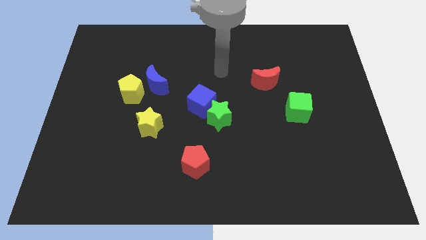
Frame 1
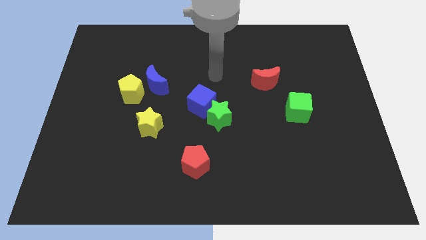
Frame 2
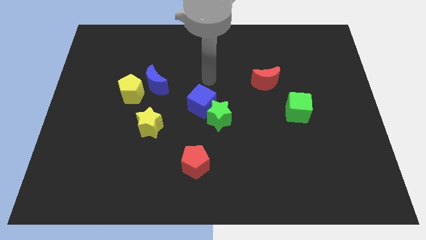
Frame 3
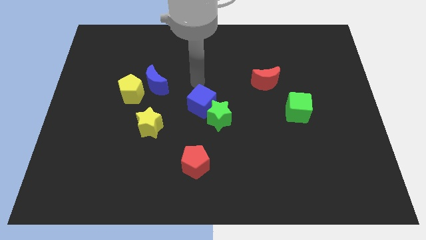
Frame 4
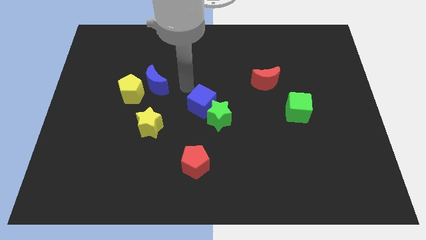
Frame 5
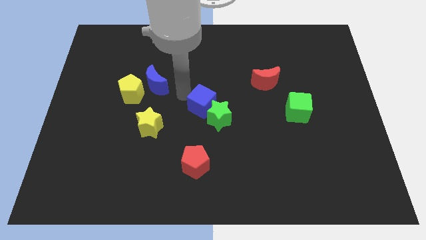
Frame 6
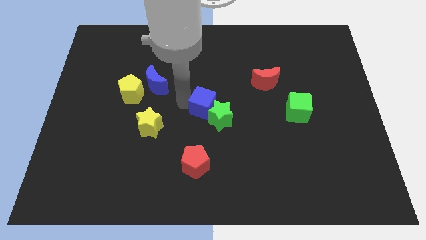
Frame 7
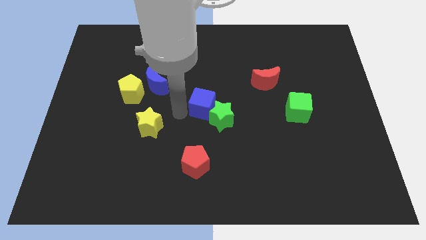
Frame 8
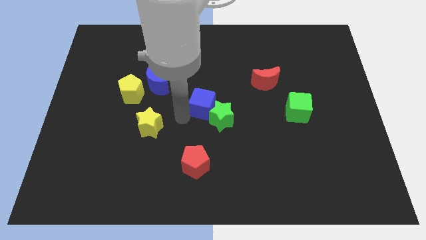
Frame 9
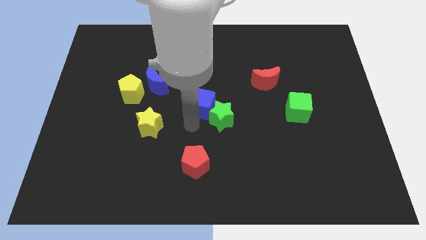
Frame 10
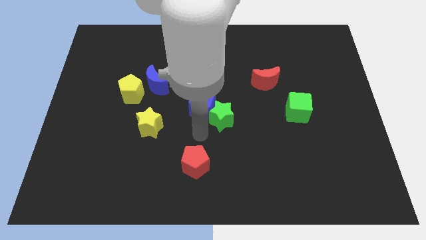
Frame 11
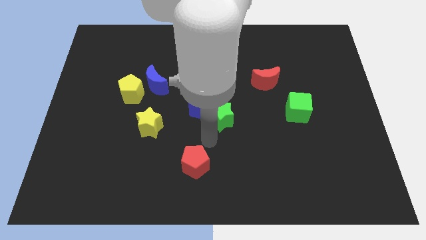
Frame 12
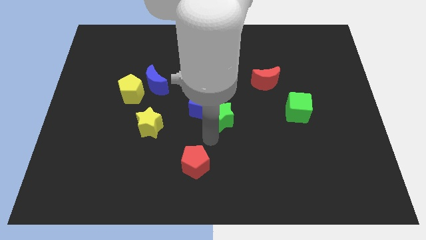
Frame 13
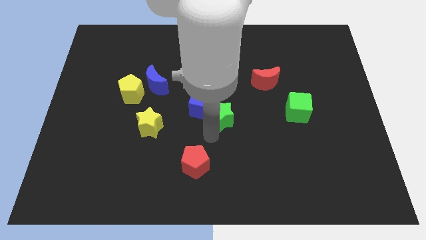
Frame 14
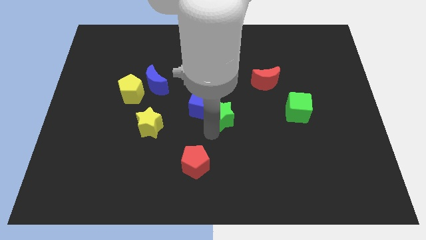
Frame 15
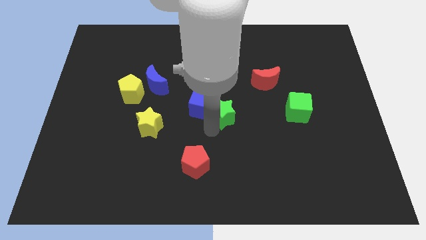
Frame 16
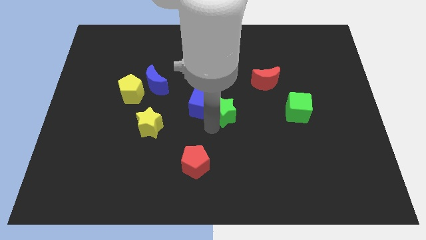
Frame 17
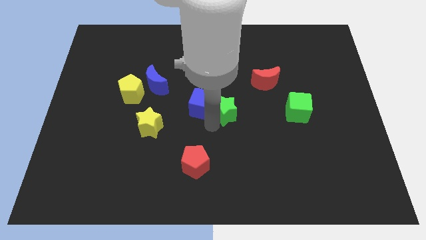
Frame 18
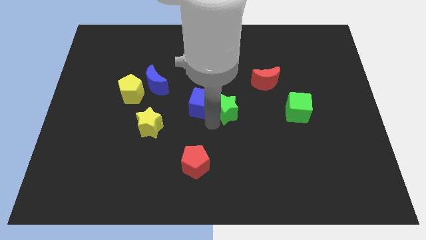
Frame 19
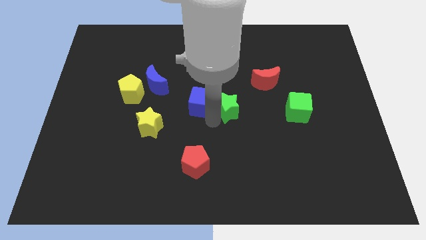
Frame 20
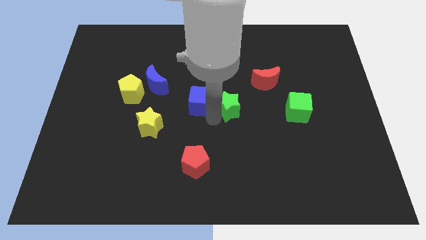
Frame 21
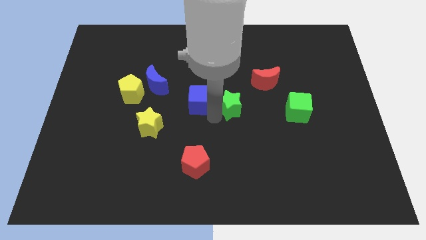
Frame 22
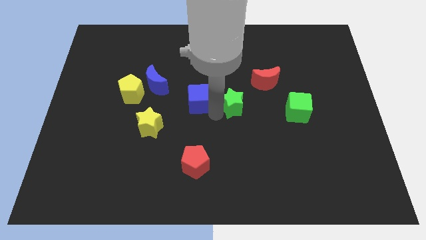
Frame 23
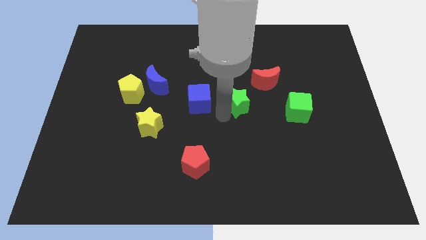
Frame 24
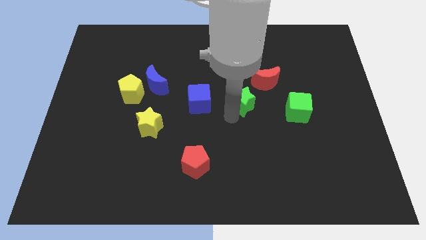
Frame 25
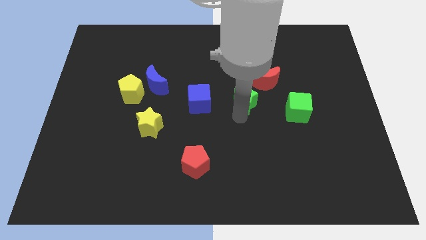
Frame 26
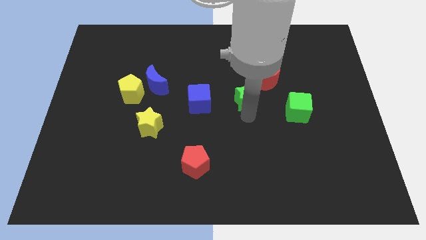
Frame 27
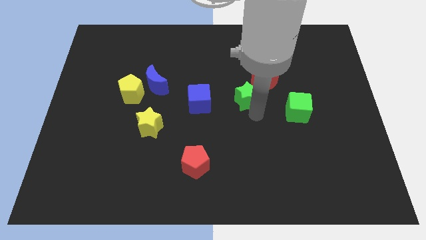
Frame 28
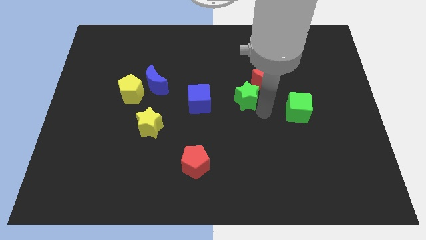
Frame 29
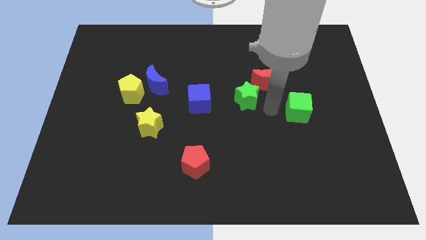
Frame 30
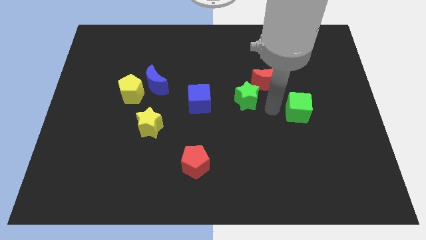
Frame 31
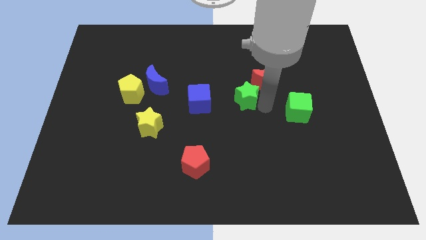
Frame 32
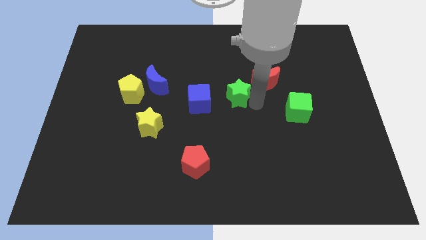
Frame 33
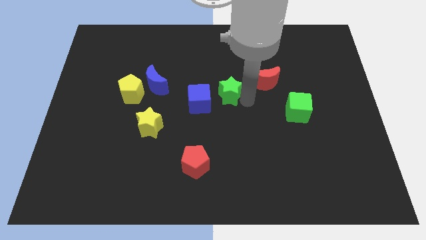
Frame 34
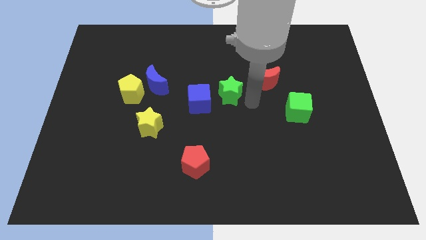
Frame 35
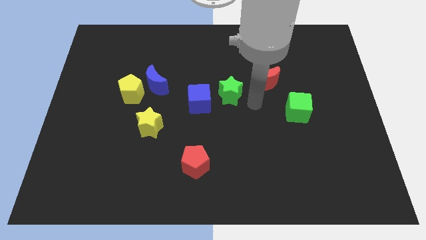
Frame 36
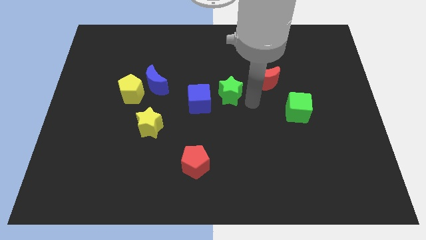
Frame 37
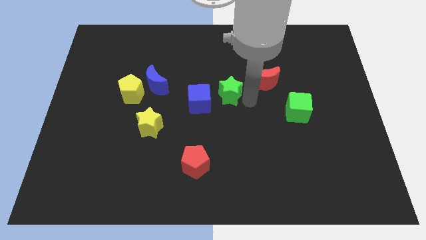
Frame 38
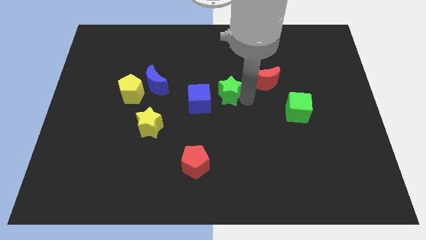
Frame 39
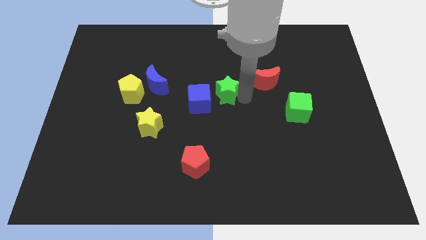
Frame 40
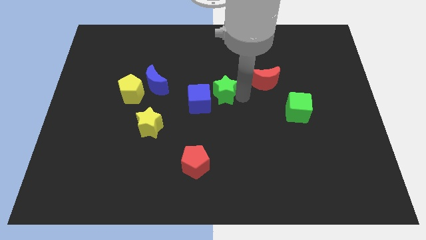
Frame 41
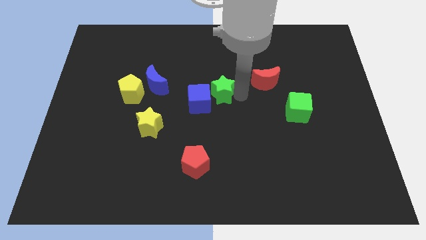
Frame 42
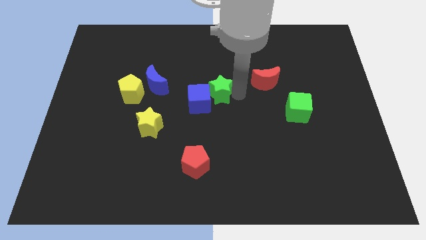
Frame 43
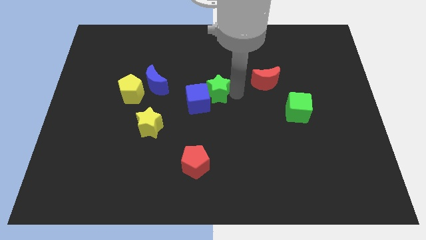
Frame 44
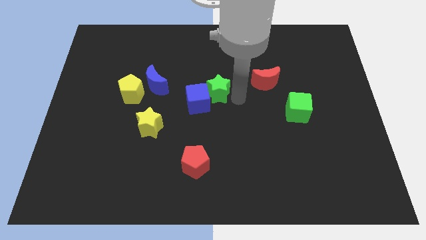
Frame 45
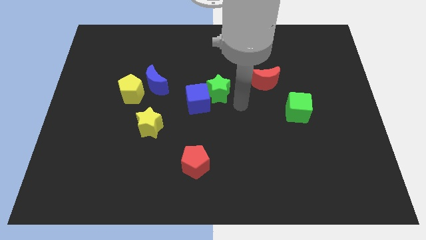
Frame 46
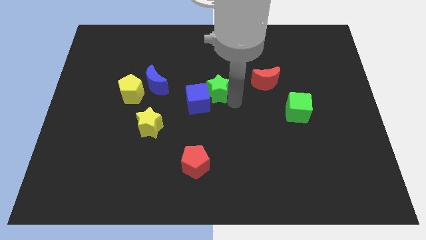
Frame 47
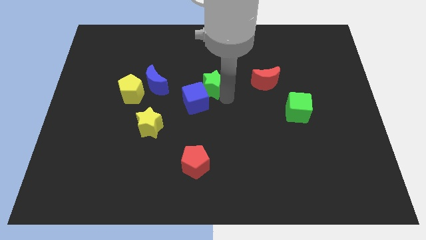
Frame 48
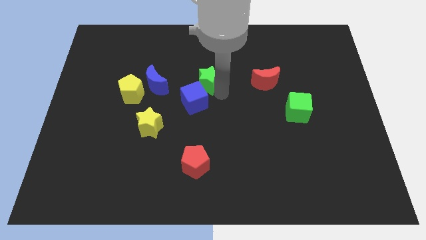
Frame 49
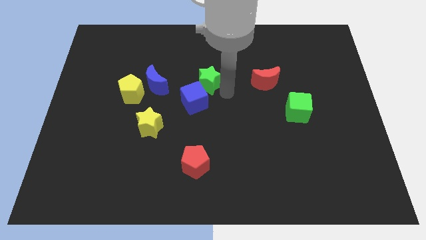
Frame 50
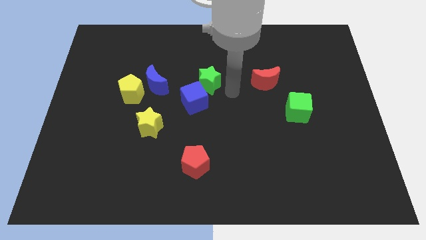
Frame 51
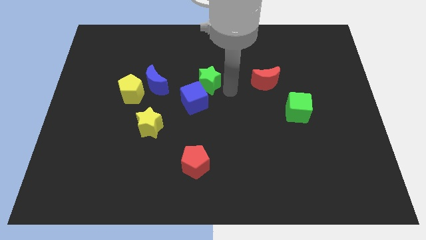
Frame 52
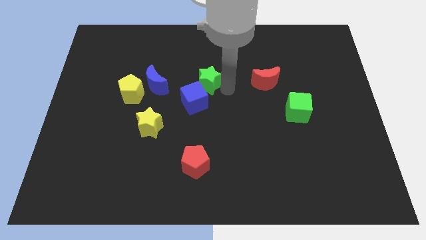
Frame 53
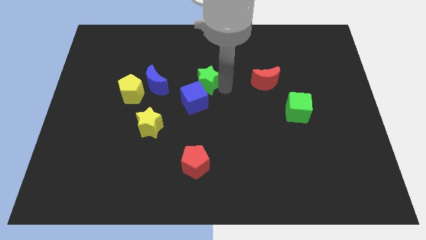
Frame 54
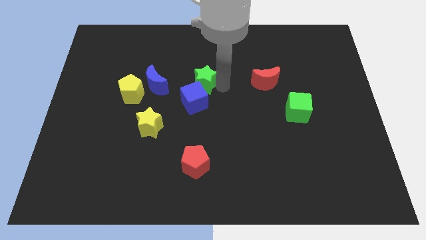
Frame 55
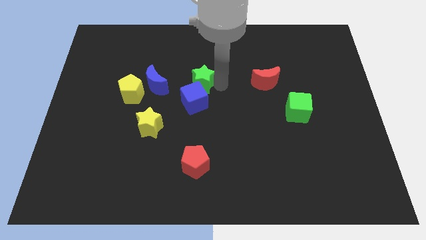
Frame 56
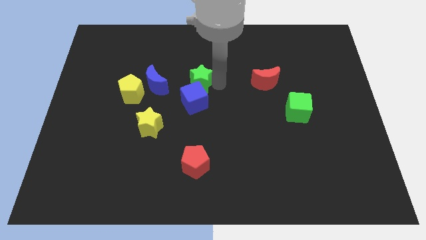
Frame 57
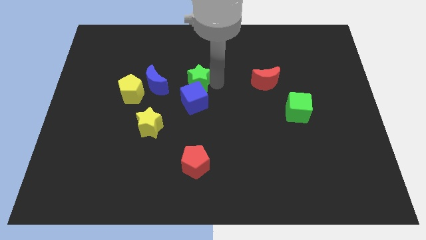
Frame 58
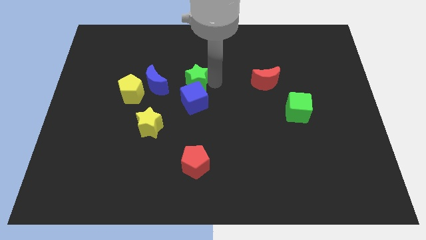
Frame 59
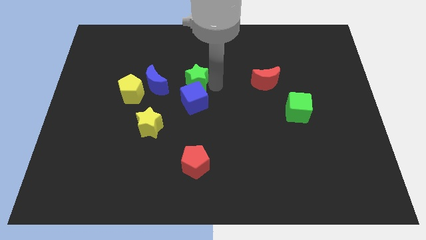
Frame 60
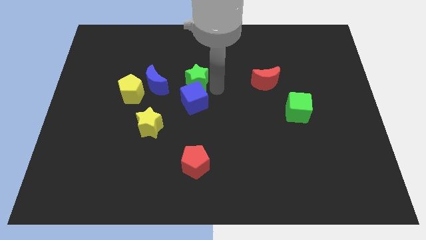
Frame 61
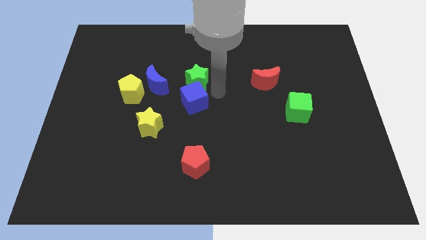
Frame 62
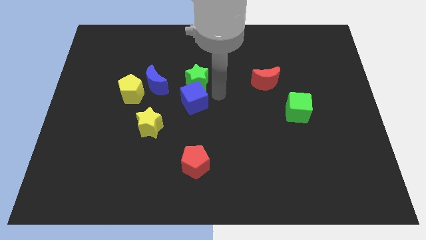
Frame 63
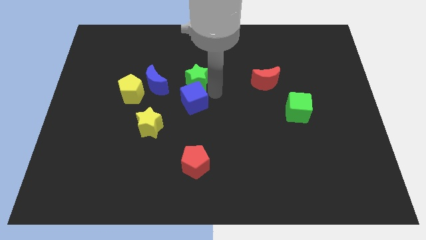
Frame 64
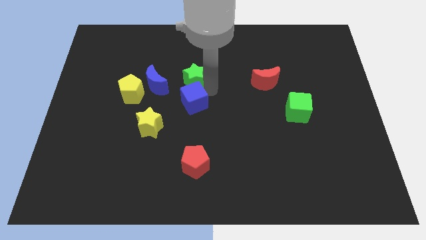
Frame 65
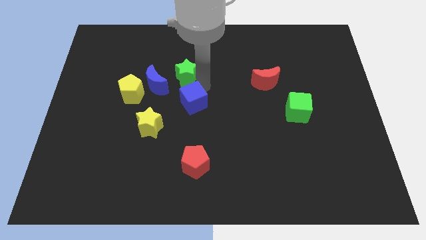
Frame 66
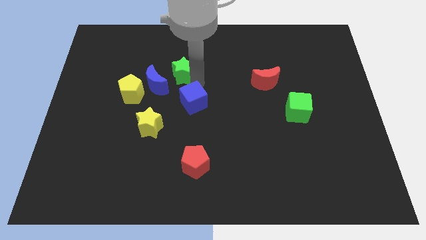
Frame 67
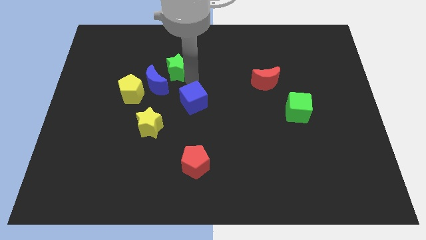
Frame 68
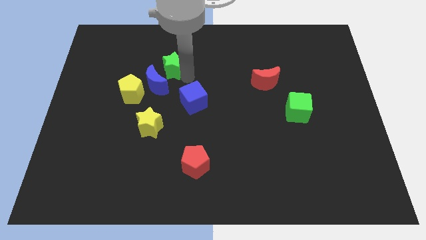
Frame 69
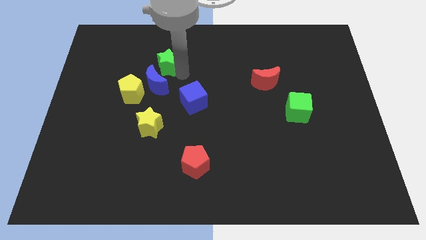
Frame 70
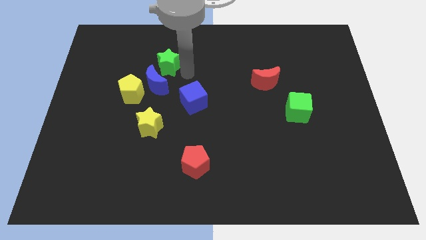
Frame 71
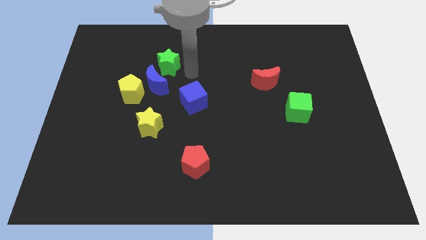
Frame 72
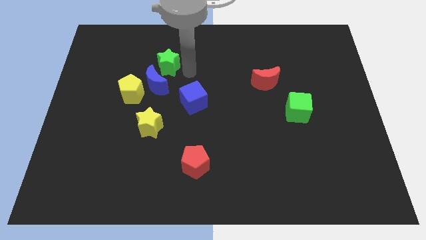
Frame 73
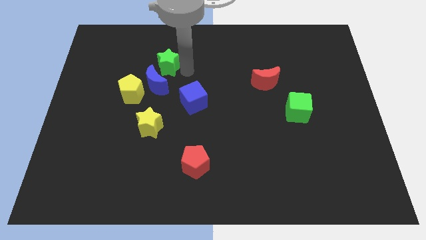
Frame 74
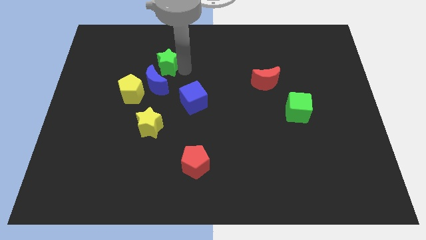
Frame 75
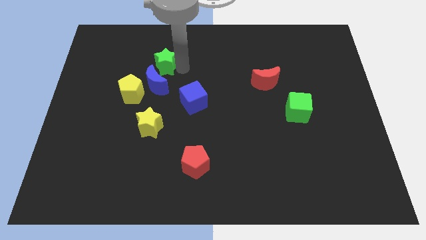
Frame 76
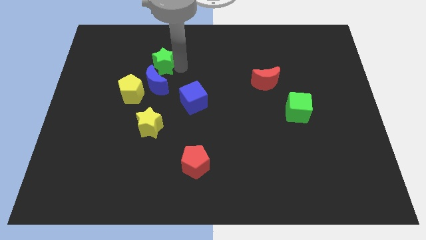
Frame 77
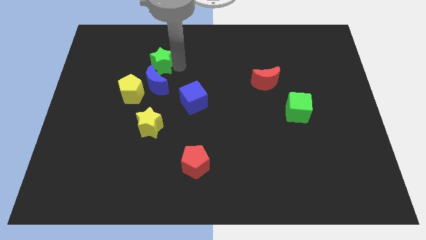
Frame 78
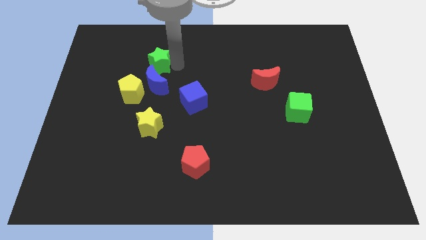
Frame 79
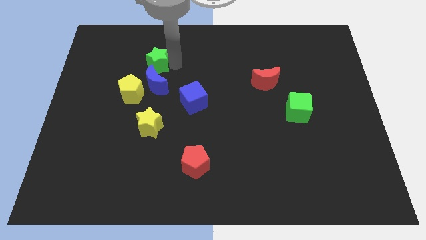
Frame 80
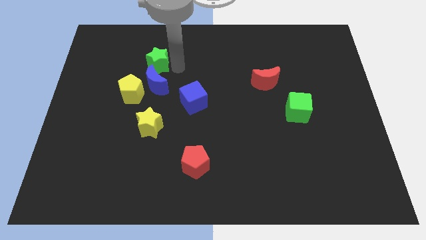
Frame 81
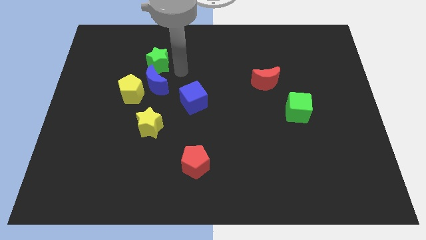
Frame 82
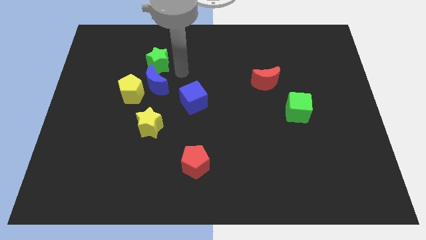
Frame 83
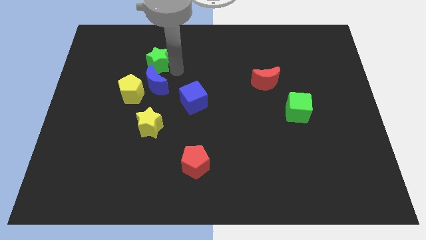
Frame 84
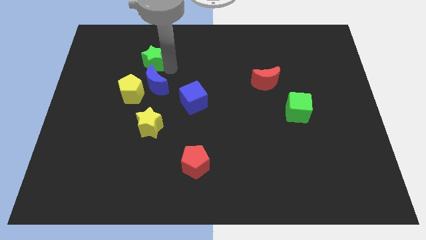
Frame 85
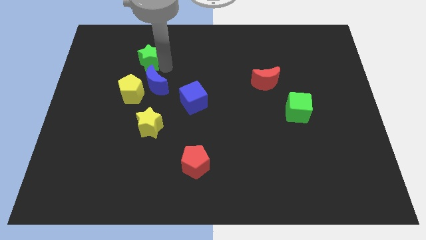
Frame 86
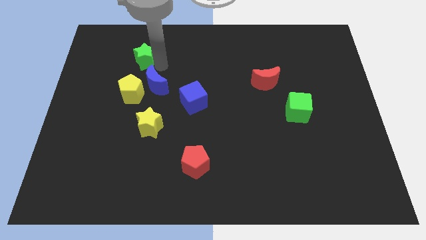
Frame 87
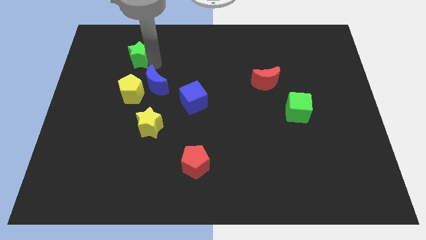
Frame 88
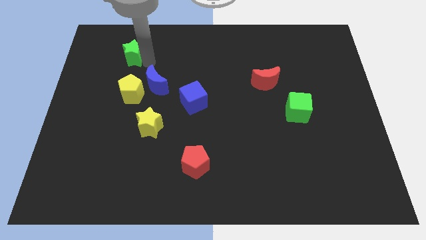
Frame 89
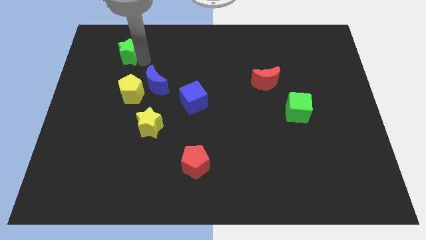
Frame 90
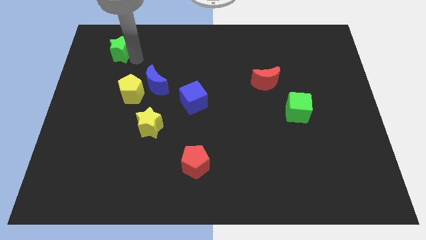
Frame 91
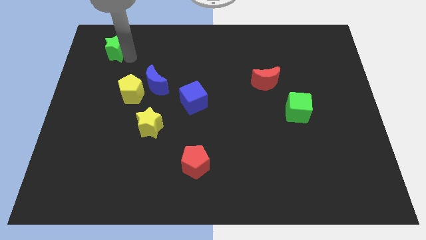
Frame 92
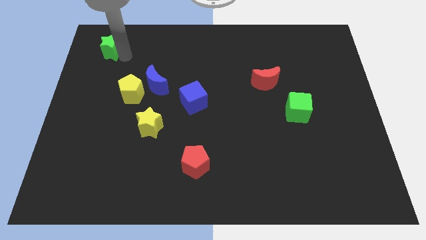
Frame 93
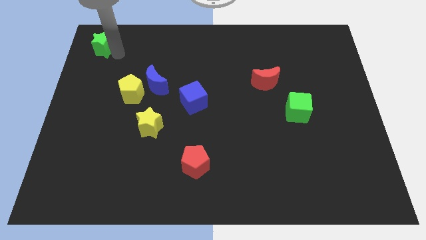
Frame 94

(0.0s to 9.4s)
slide the green star to the top left of the board
